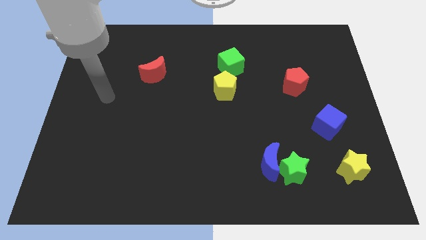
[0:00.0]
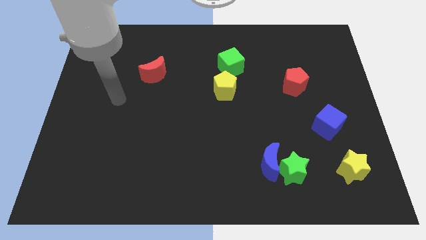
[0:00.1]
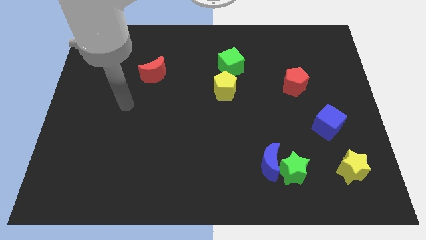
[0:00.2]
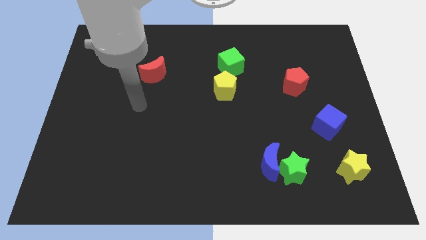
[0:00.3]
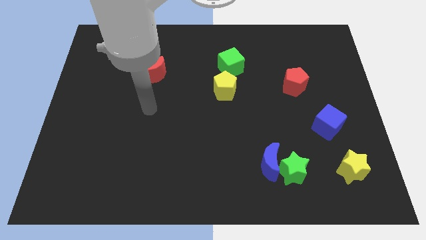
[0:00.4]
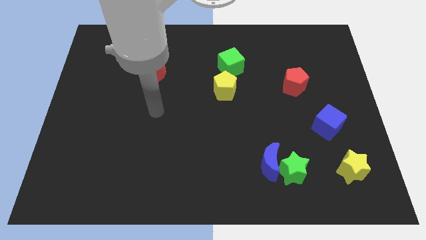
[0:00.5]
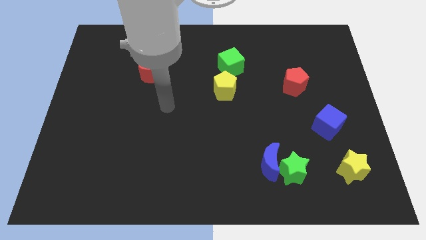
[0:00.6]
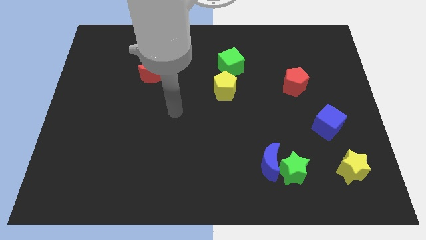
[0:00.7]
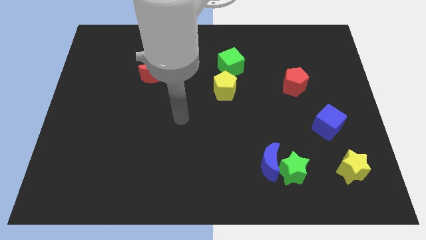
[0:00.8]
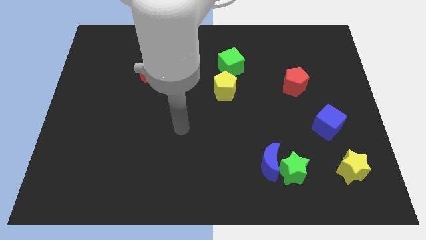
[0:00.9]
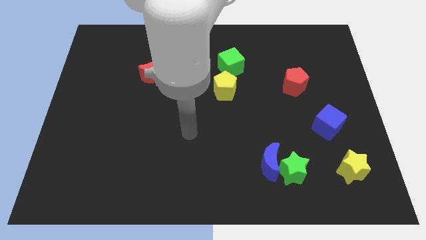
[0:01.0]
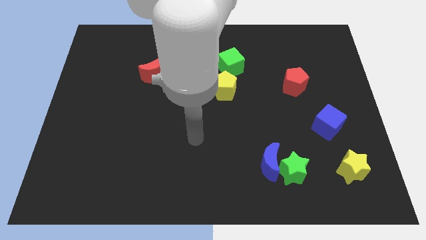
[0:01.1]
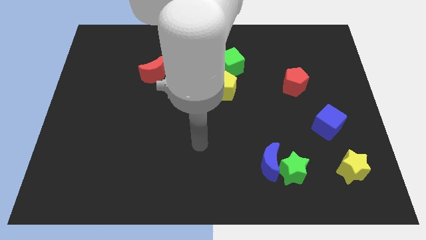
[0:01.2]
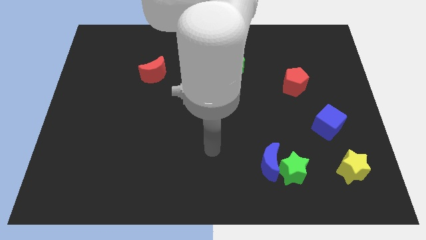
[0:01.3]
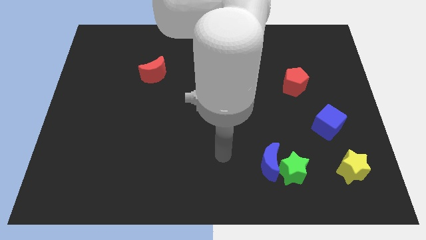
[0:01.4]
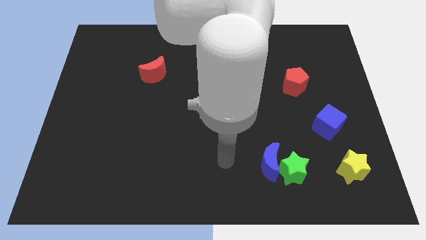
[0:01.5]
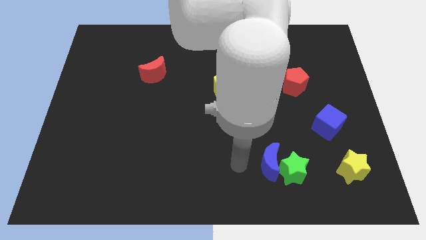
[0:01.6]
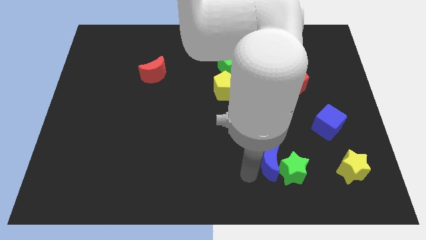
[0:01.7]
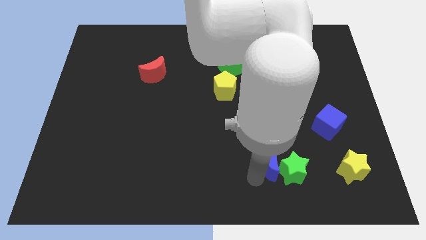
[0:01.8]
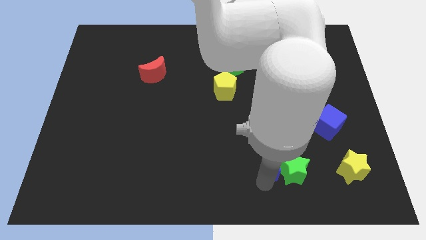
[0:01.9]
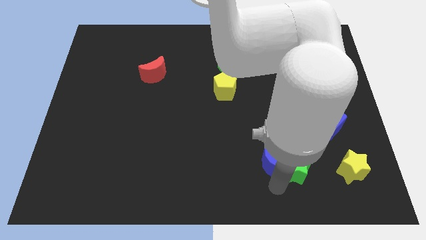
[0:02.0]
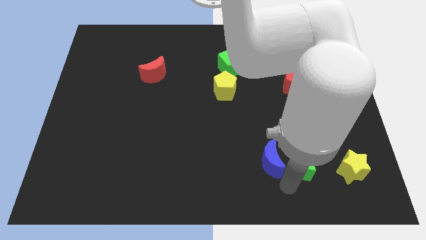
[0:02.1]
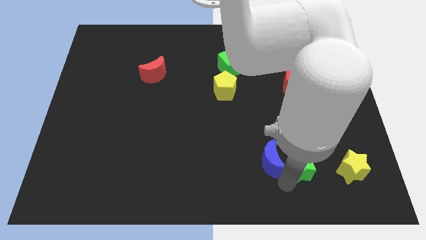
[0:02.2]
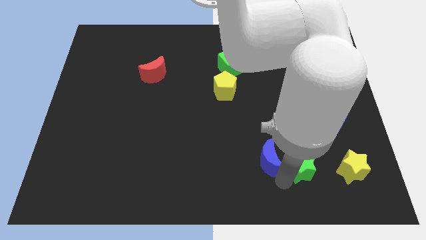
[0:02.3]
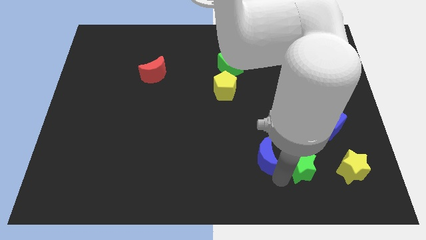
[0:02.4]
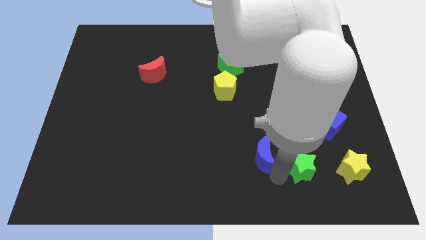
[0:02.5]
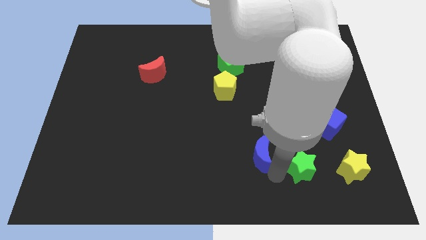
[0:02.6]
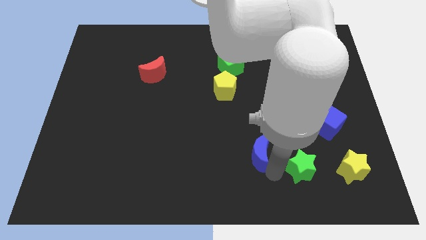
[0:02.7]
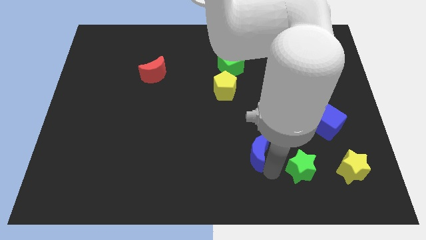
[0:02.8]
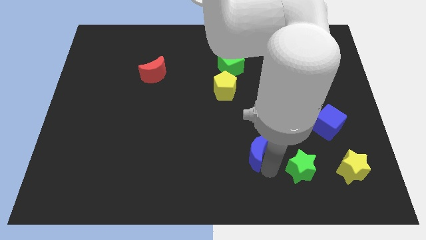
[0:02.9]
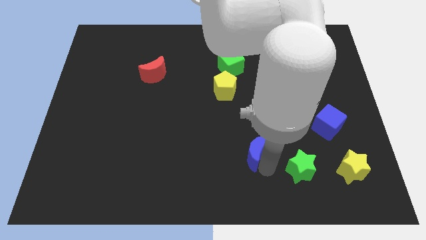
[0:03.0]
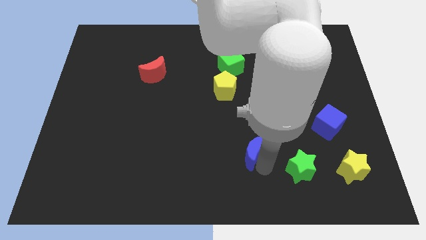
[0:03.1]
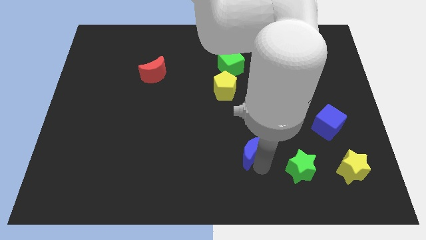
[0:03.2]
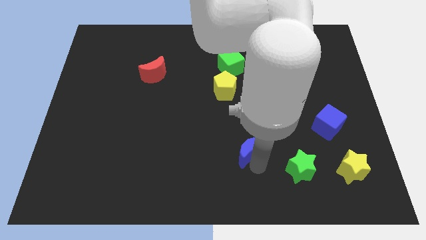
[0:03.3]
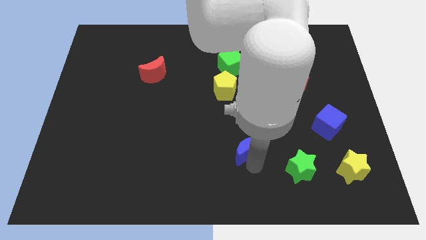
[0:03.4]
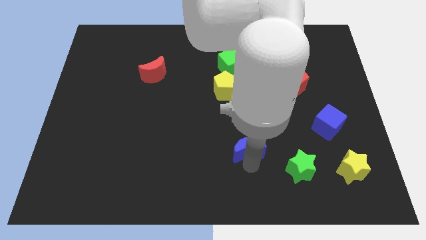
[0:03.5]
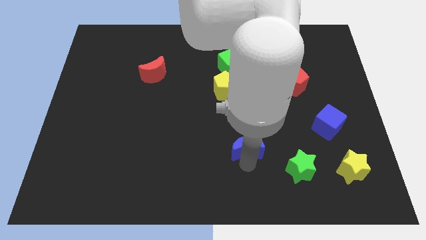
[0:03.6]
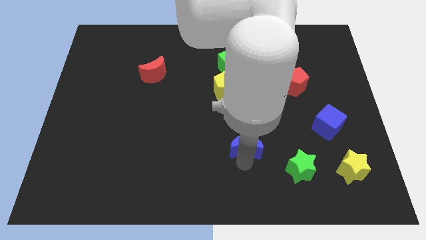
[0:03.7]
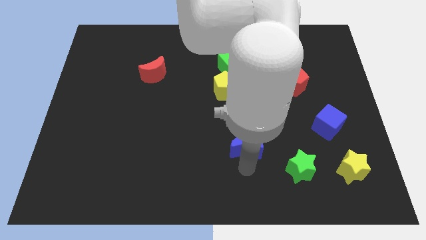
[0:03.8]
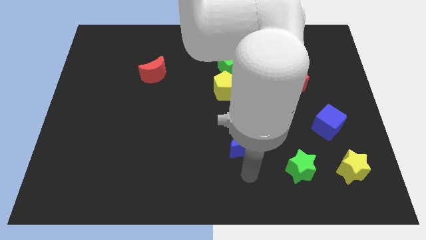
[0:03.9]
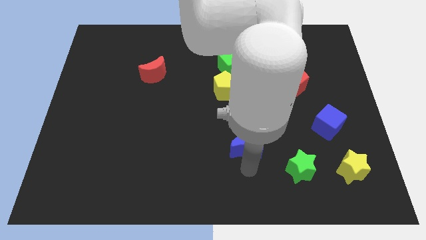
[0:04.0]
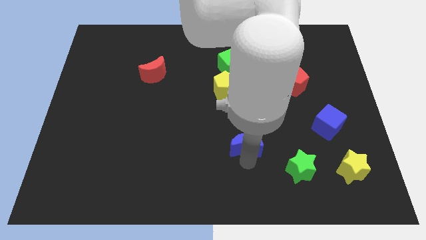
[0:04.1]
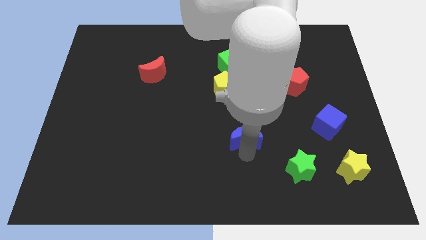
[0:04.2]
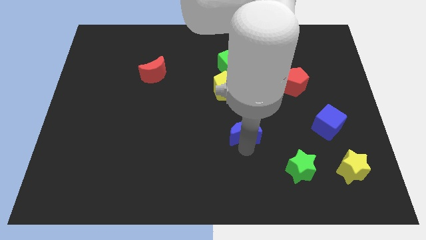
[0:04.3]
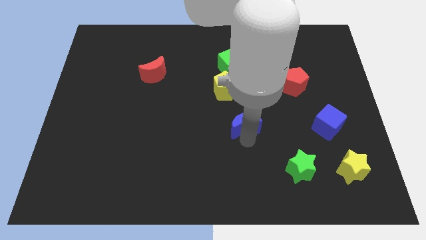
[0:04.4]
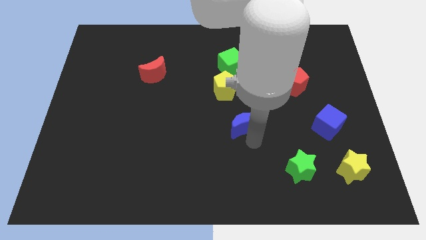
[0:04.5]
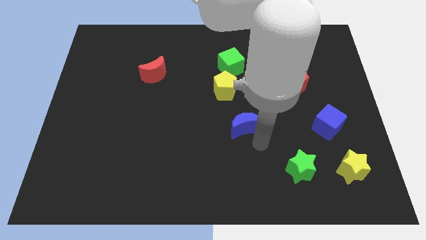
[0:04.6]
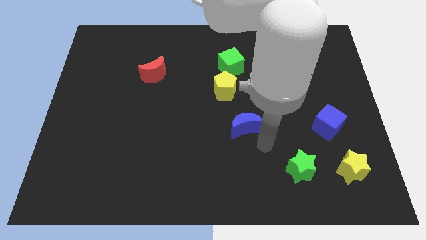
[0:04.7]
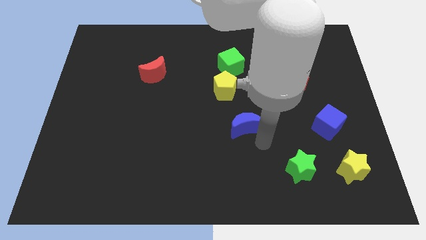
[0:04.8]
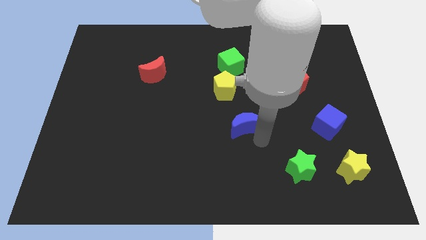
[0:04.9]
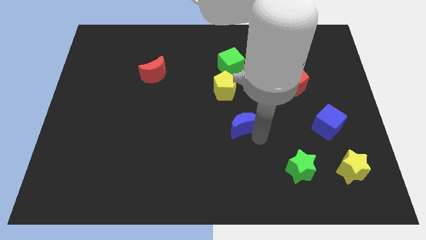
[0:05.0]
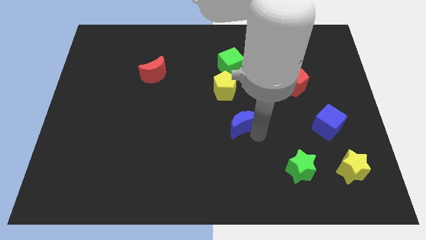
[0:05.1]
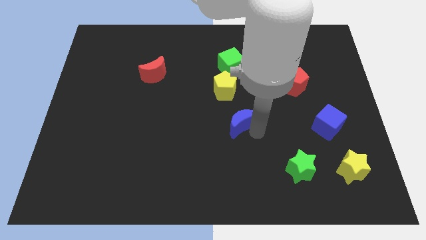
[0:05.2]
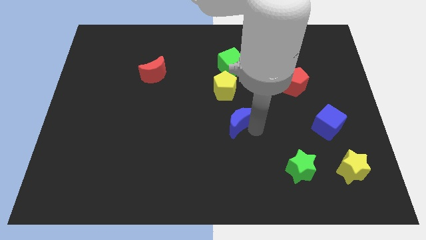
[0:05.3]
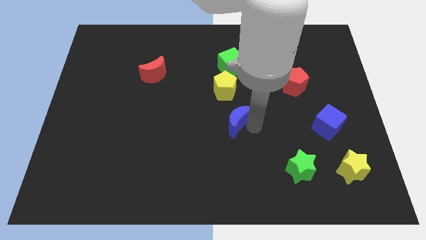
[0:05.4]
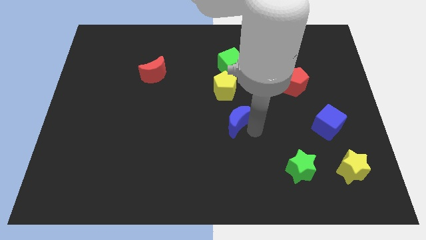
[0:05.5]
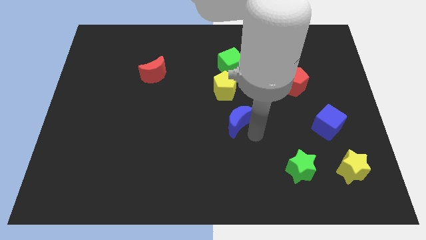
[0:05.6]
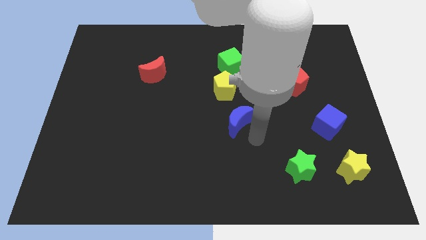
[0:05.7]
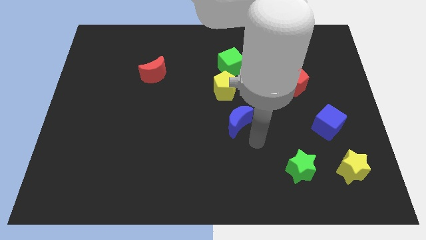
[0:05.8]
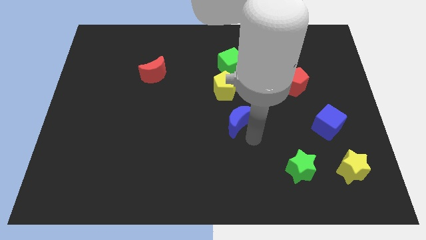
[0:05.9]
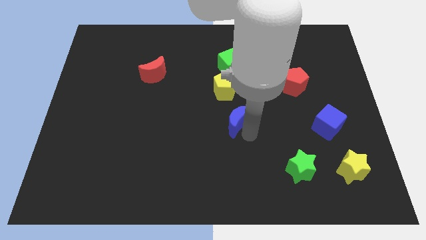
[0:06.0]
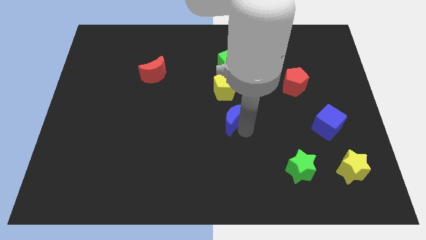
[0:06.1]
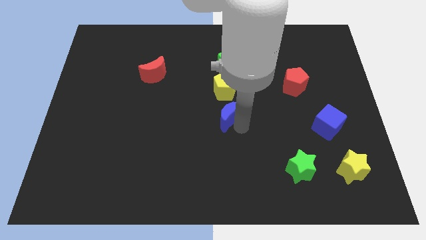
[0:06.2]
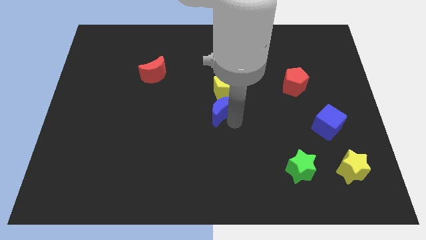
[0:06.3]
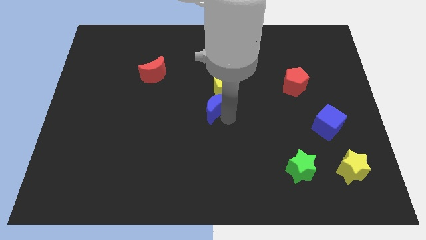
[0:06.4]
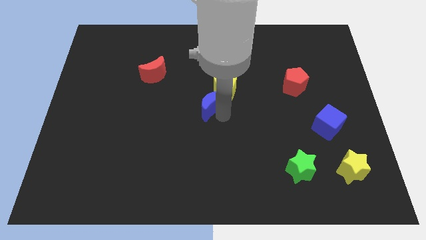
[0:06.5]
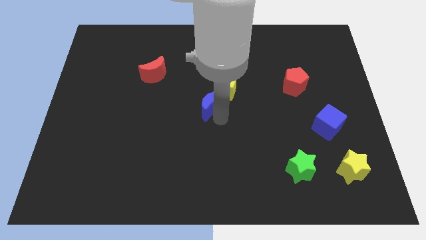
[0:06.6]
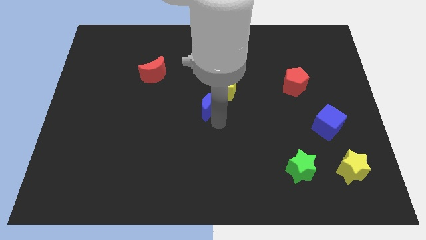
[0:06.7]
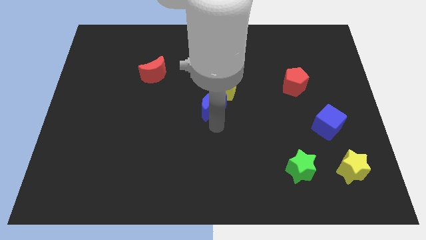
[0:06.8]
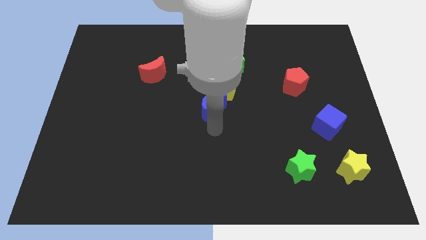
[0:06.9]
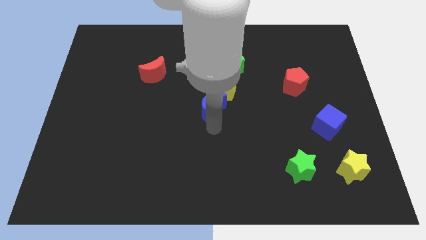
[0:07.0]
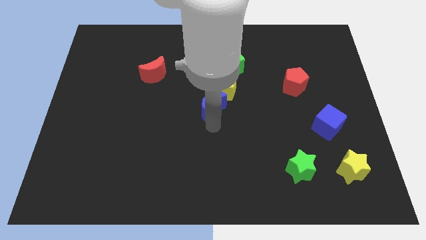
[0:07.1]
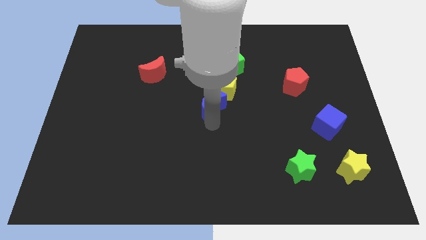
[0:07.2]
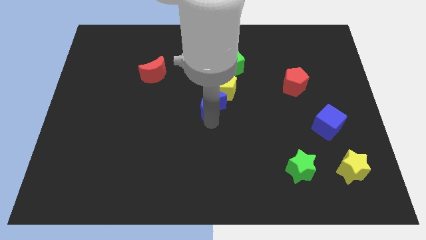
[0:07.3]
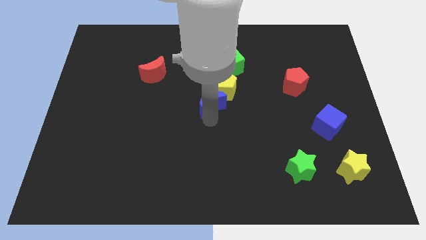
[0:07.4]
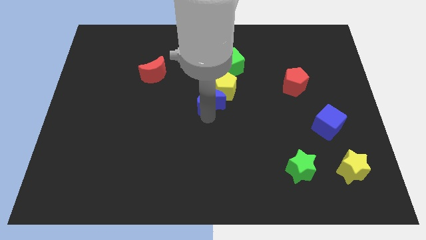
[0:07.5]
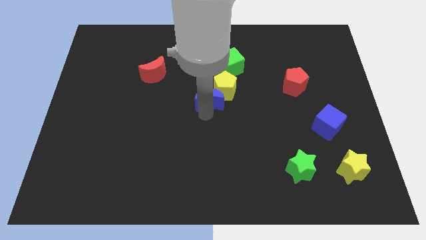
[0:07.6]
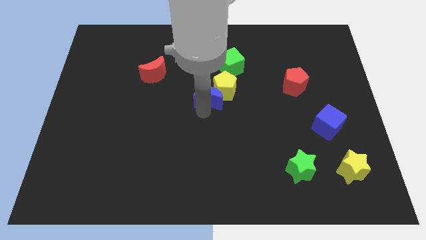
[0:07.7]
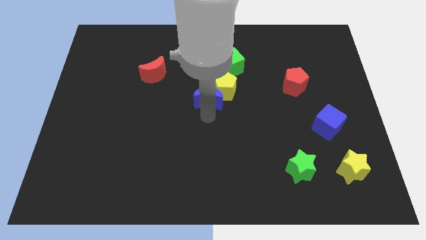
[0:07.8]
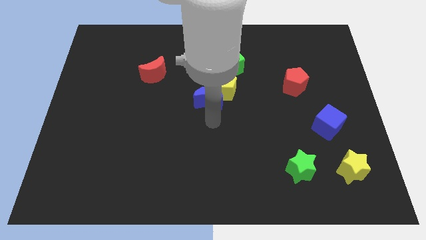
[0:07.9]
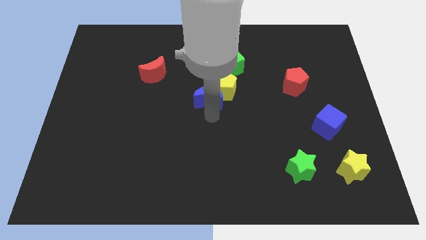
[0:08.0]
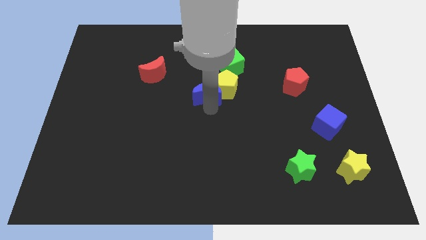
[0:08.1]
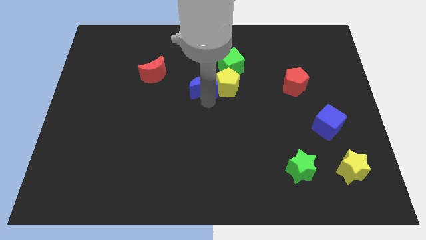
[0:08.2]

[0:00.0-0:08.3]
move the blue moon to the top left side of the yellow pentagon

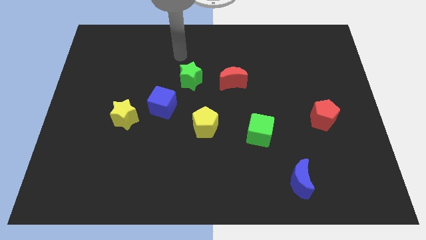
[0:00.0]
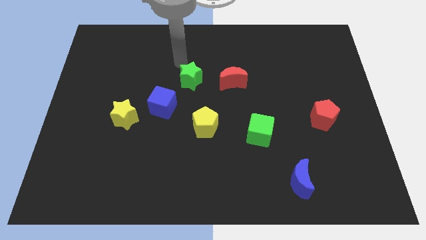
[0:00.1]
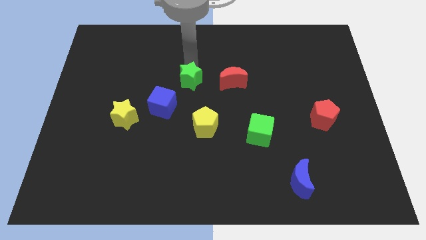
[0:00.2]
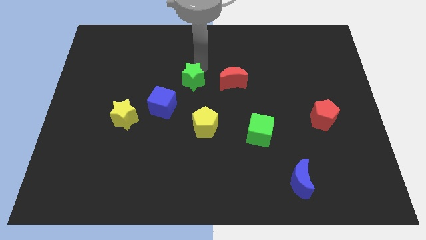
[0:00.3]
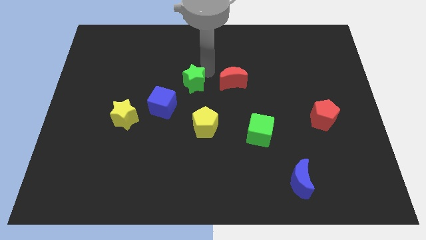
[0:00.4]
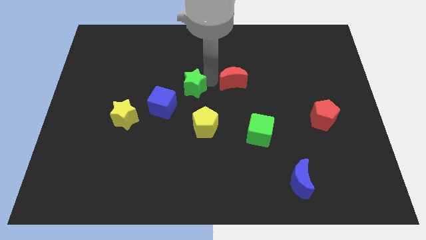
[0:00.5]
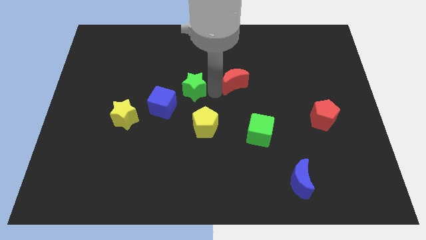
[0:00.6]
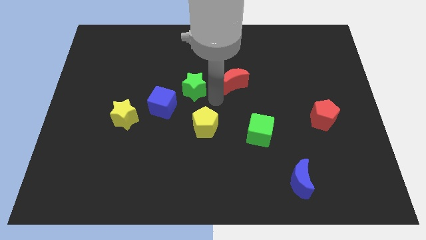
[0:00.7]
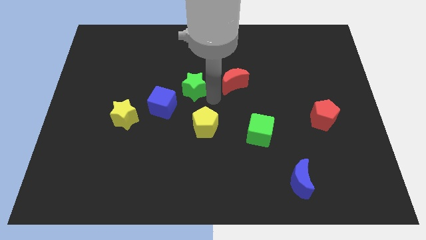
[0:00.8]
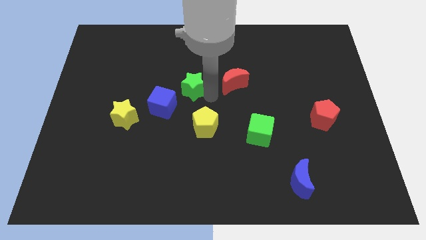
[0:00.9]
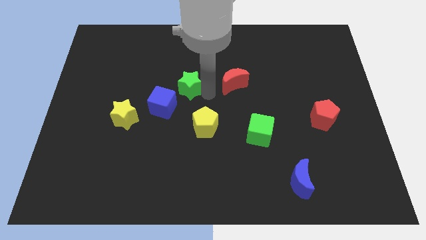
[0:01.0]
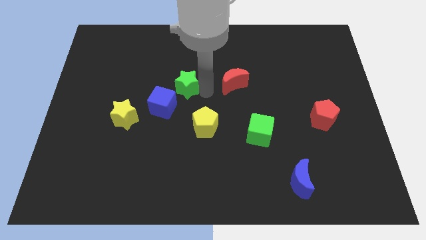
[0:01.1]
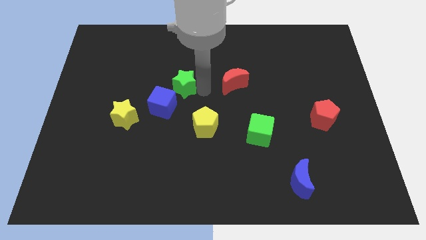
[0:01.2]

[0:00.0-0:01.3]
push the green star to the top of the blue cube
